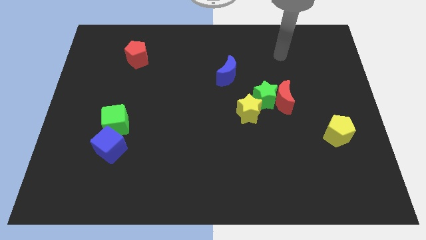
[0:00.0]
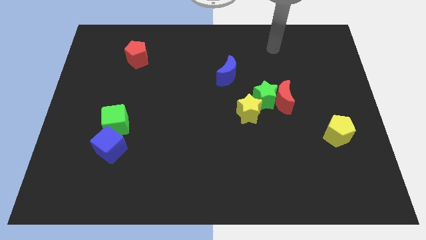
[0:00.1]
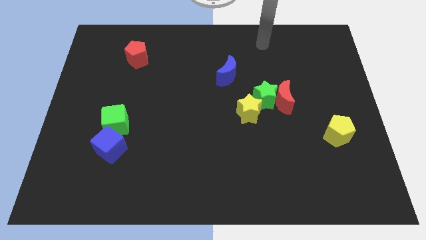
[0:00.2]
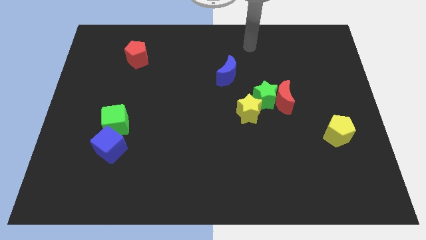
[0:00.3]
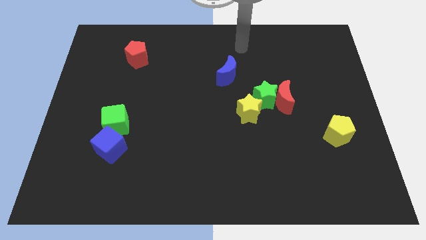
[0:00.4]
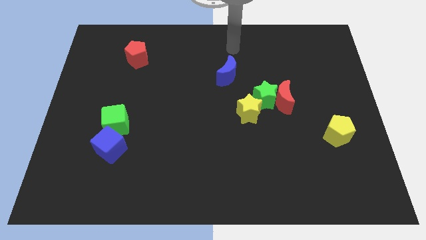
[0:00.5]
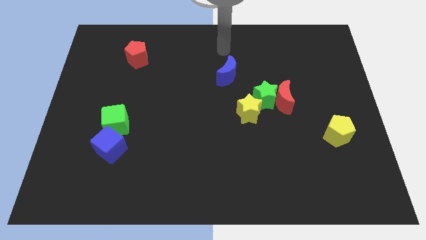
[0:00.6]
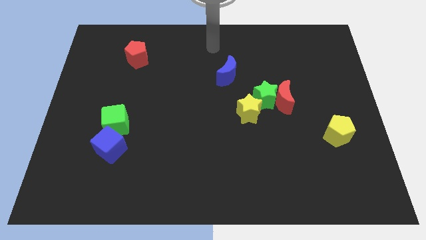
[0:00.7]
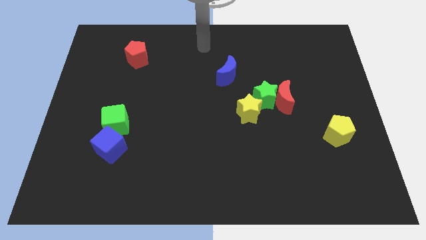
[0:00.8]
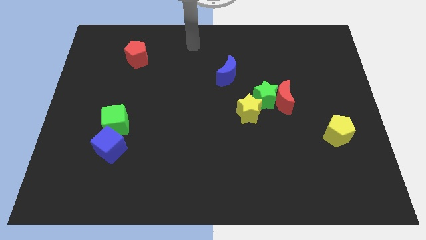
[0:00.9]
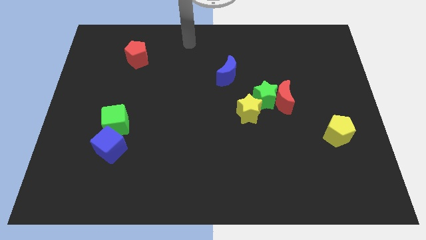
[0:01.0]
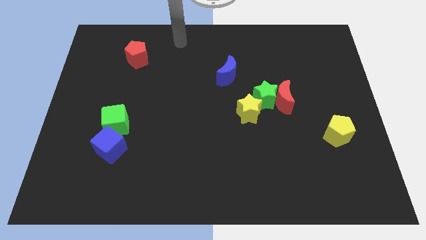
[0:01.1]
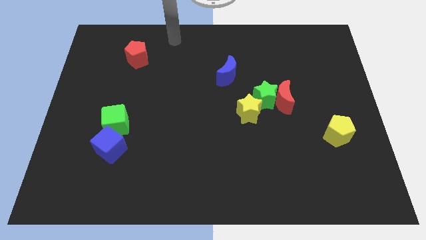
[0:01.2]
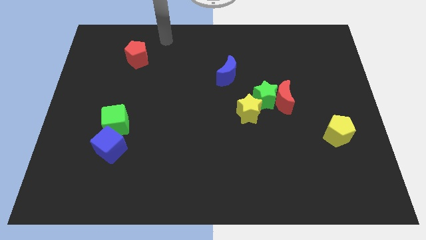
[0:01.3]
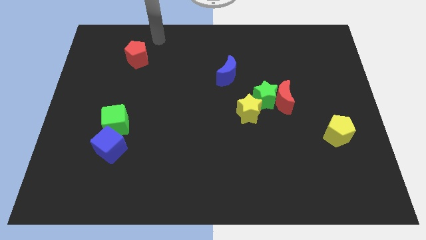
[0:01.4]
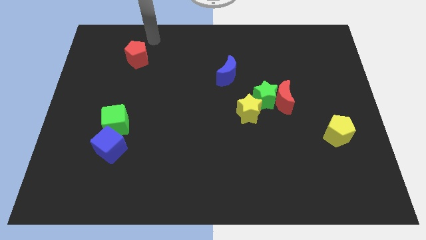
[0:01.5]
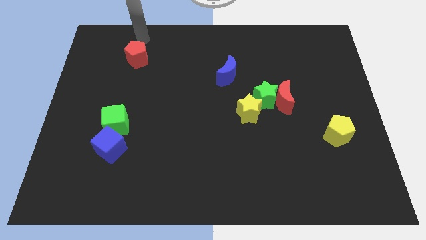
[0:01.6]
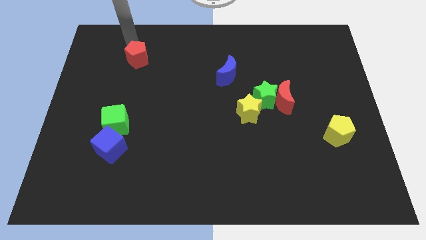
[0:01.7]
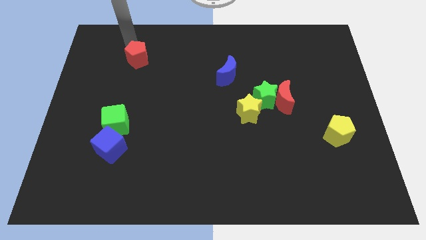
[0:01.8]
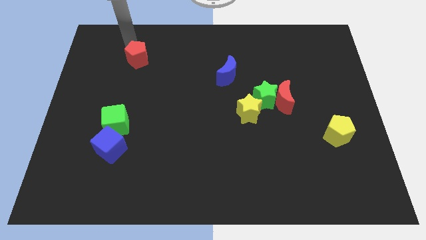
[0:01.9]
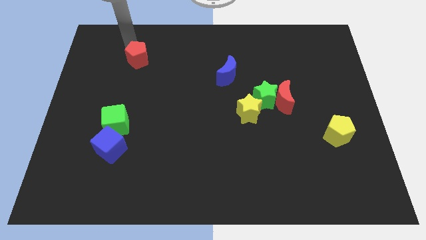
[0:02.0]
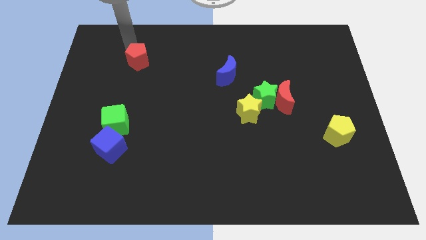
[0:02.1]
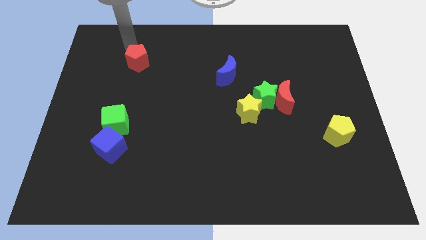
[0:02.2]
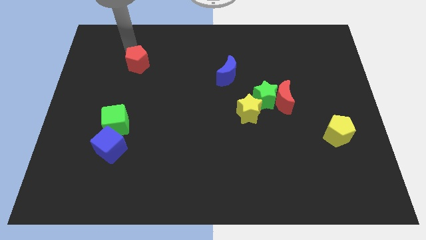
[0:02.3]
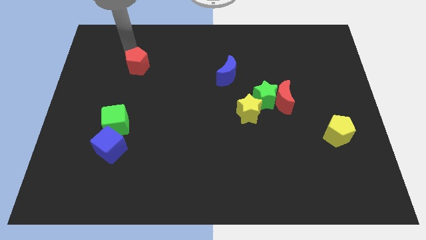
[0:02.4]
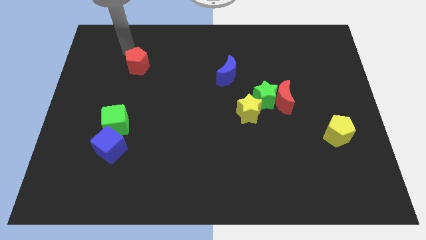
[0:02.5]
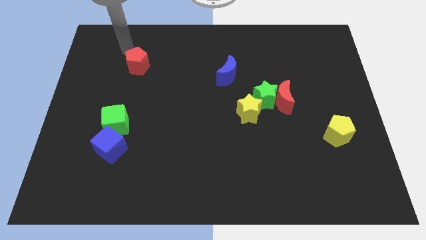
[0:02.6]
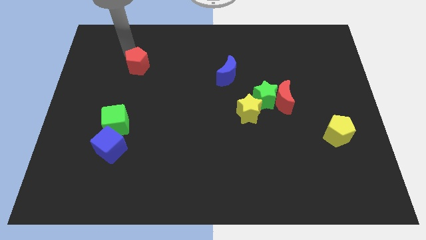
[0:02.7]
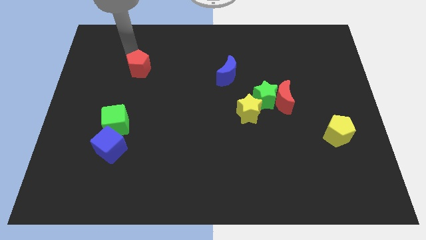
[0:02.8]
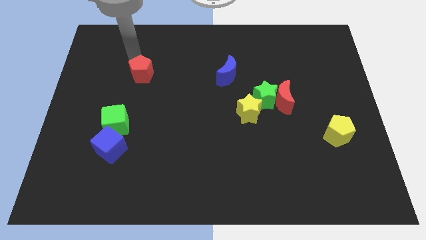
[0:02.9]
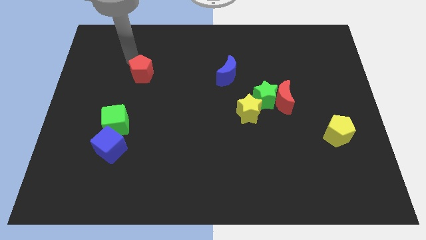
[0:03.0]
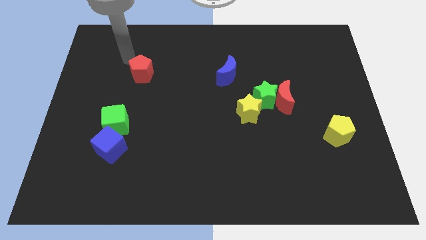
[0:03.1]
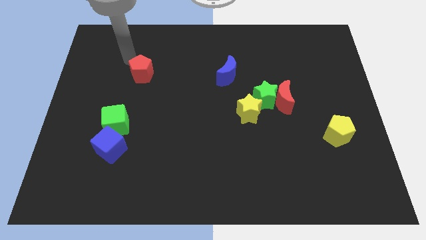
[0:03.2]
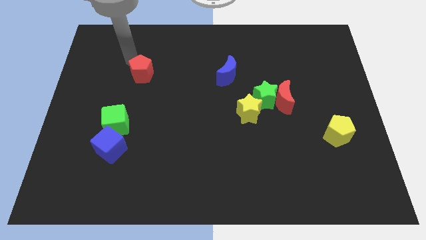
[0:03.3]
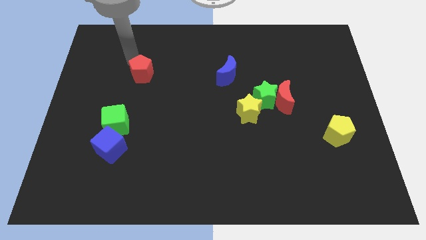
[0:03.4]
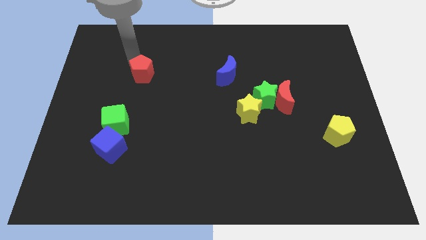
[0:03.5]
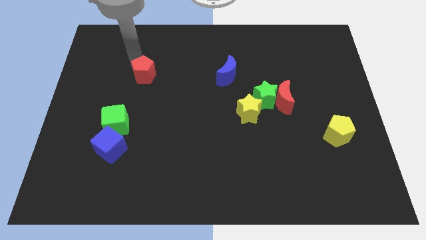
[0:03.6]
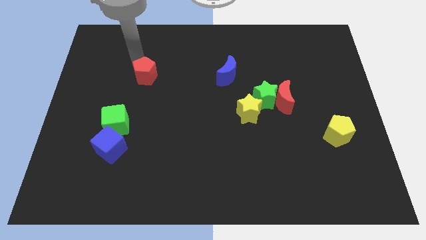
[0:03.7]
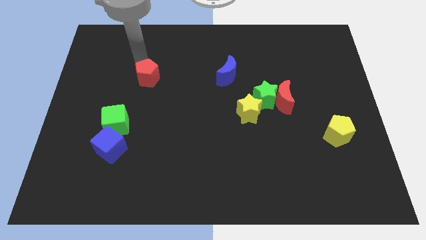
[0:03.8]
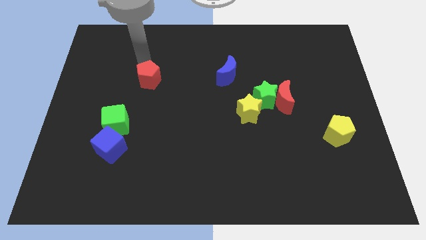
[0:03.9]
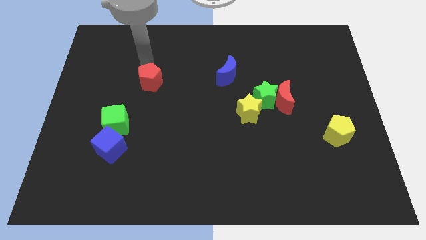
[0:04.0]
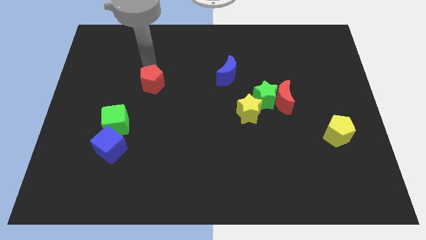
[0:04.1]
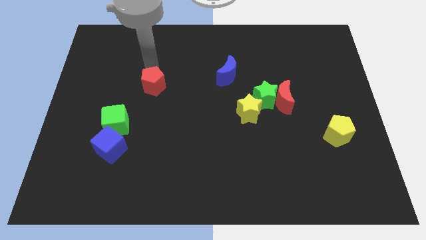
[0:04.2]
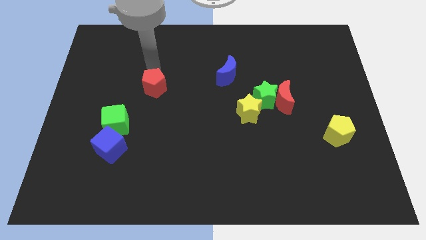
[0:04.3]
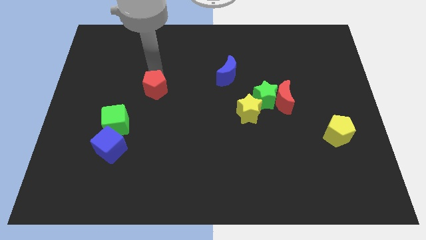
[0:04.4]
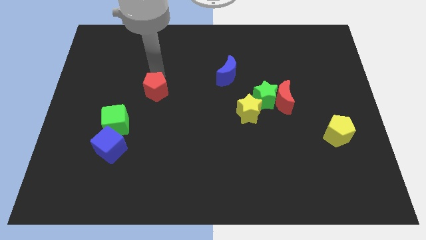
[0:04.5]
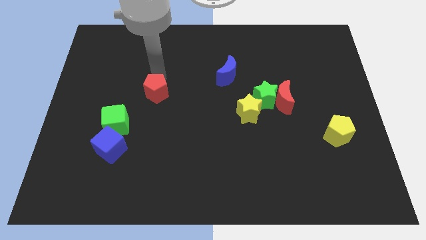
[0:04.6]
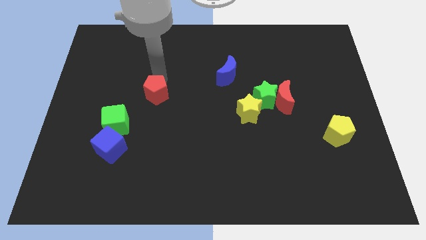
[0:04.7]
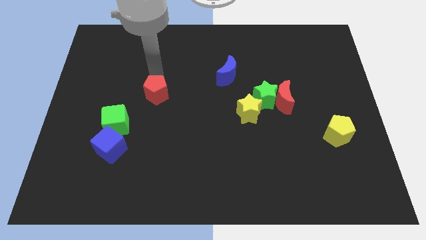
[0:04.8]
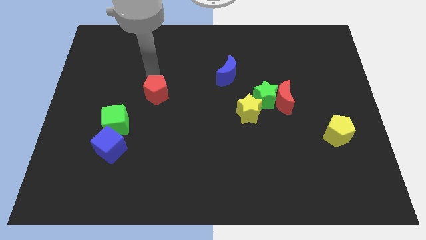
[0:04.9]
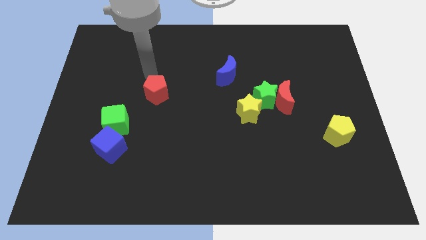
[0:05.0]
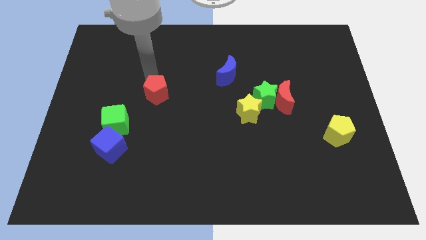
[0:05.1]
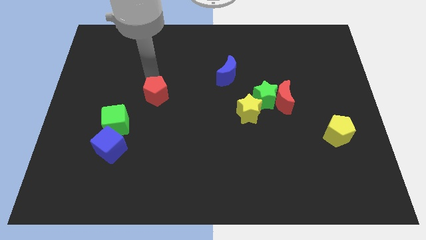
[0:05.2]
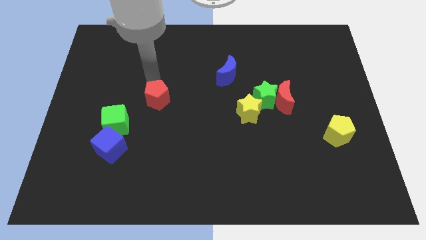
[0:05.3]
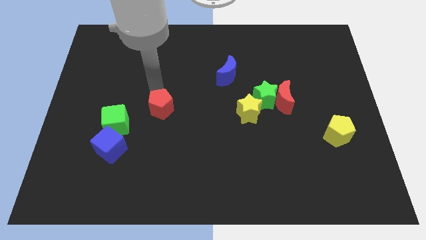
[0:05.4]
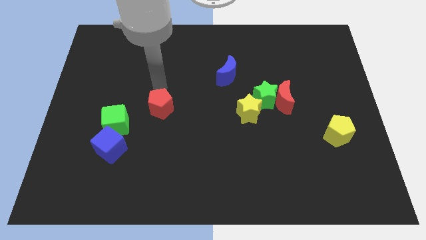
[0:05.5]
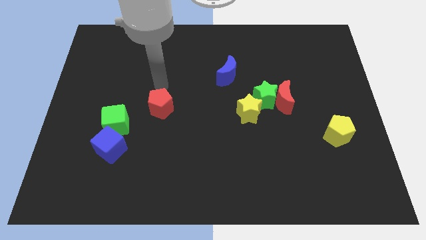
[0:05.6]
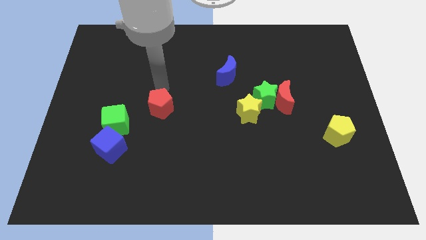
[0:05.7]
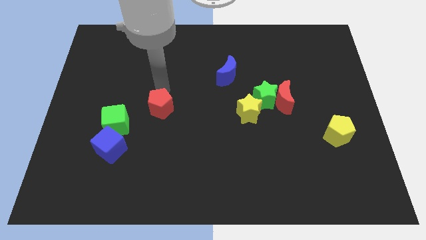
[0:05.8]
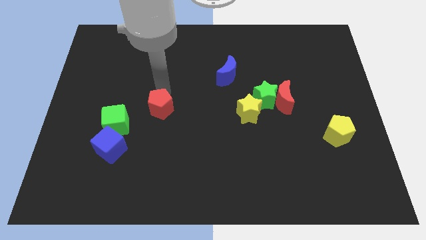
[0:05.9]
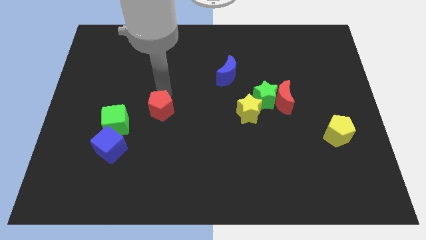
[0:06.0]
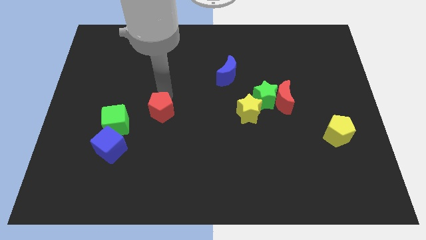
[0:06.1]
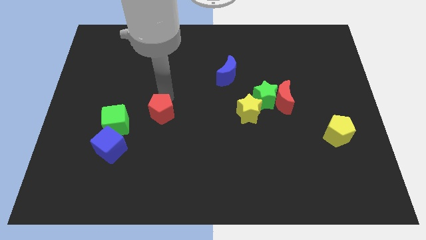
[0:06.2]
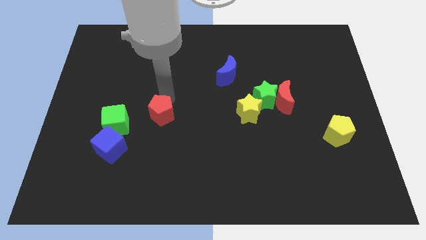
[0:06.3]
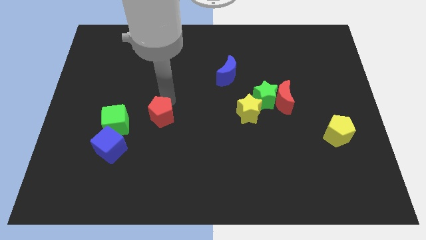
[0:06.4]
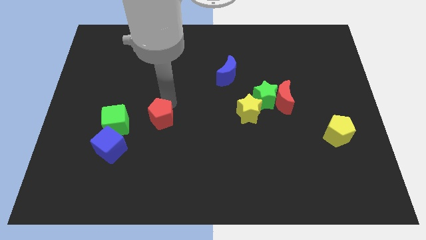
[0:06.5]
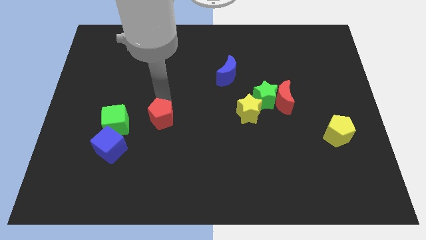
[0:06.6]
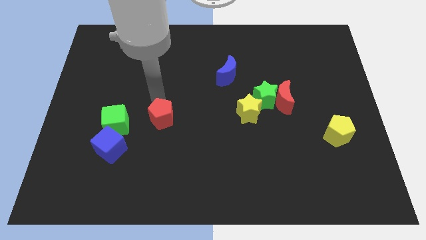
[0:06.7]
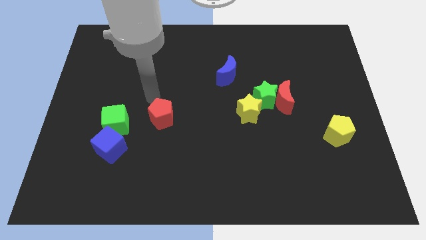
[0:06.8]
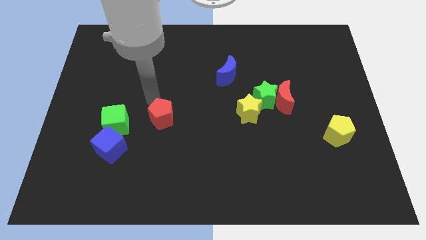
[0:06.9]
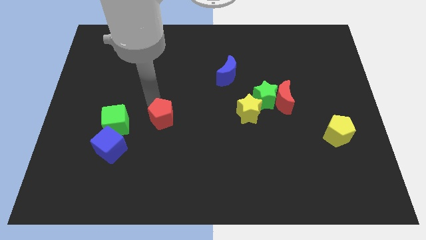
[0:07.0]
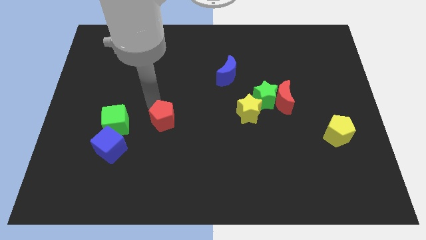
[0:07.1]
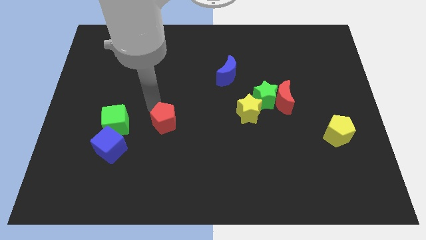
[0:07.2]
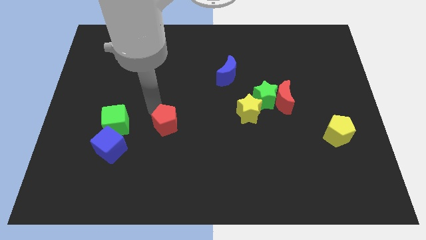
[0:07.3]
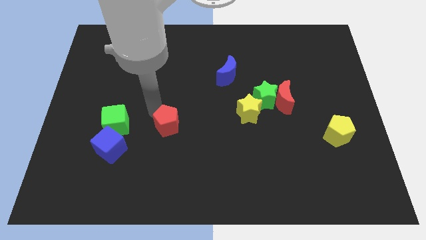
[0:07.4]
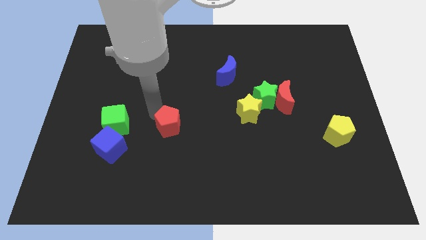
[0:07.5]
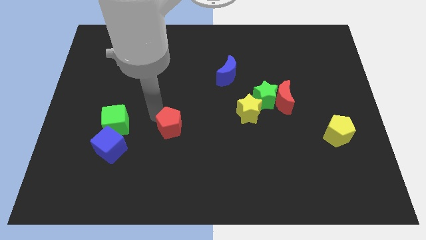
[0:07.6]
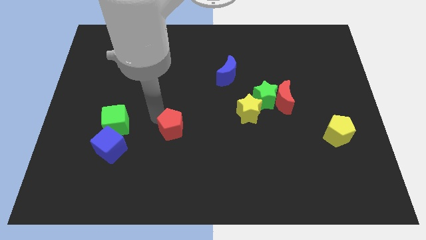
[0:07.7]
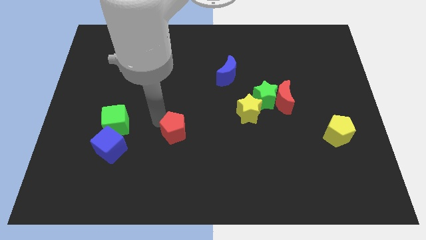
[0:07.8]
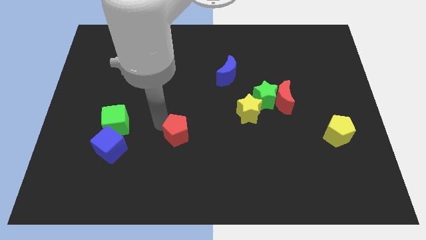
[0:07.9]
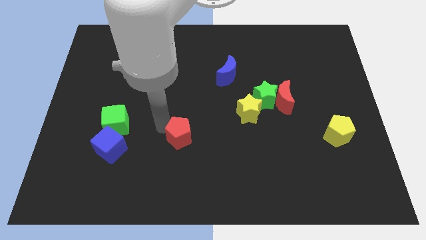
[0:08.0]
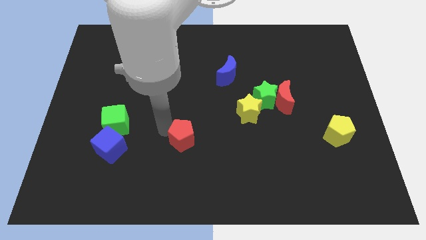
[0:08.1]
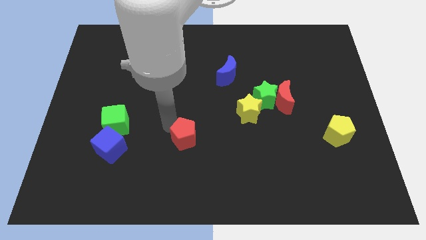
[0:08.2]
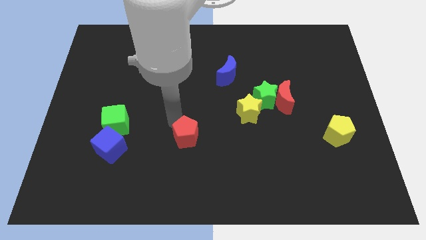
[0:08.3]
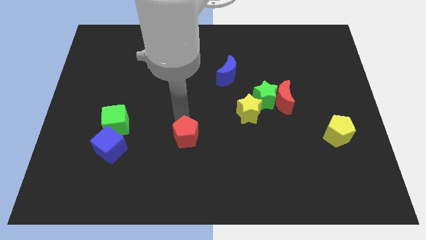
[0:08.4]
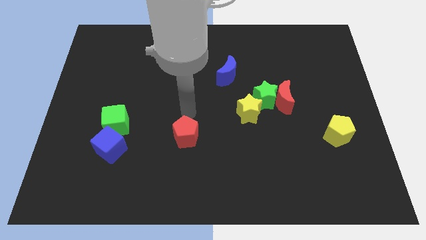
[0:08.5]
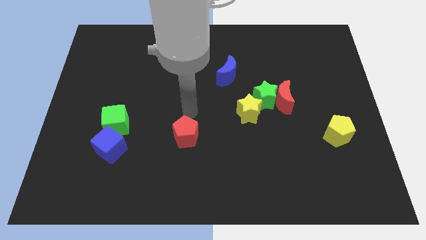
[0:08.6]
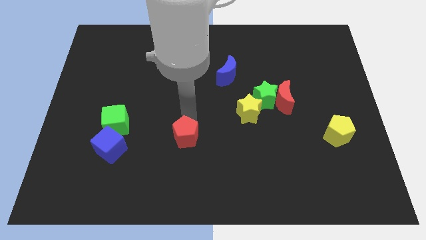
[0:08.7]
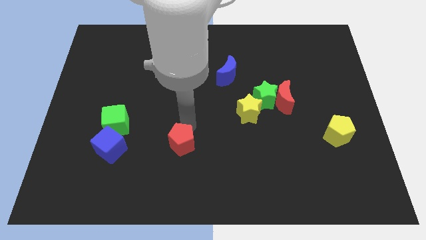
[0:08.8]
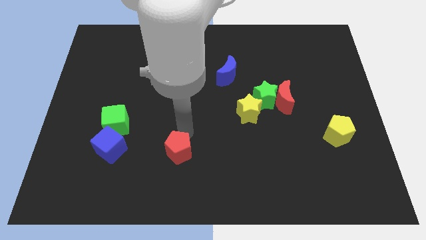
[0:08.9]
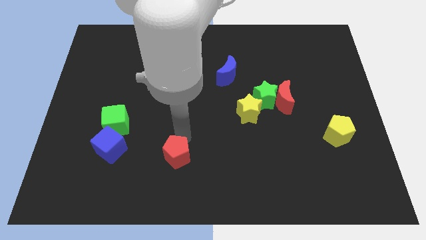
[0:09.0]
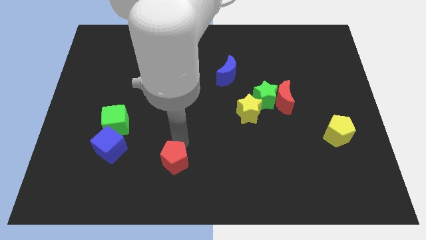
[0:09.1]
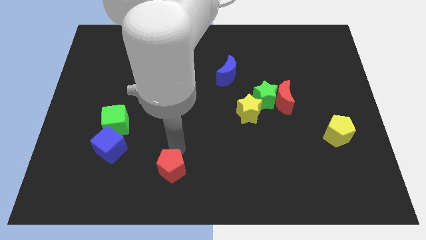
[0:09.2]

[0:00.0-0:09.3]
slide the red pentagon to the bottom side
